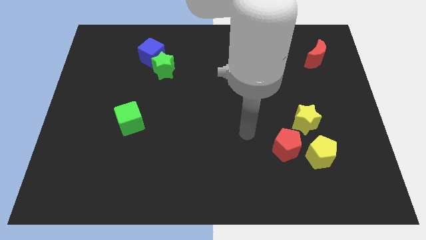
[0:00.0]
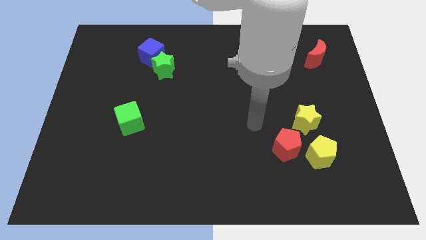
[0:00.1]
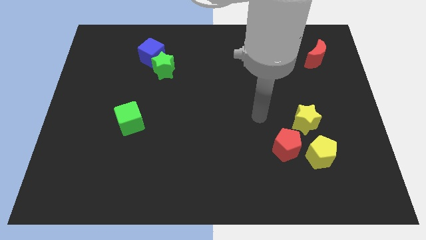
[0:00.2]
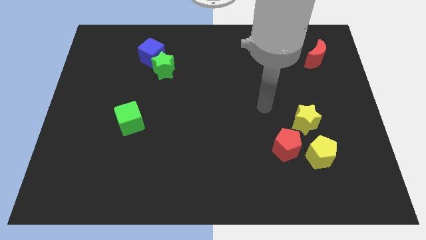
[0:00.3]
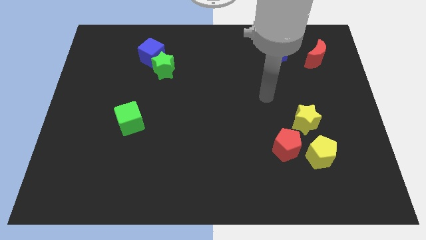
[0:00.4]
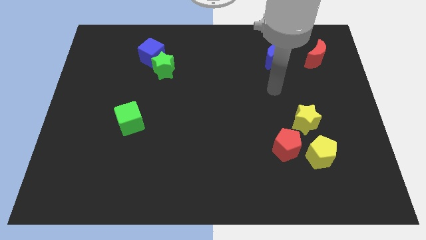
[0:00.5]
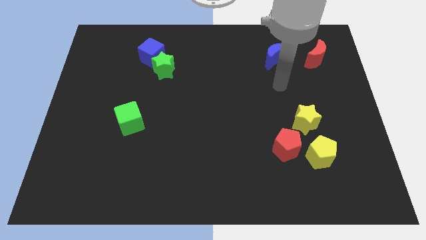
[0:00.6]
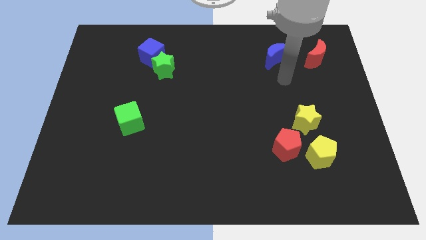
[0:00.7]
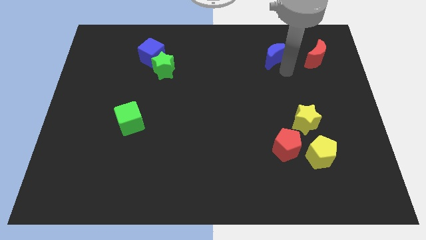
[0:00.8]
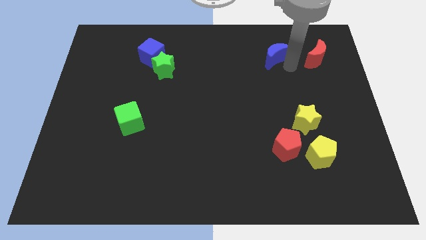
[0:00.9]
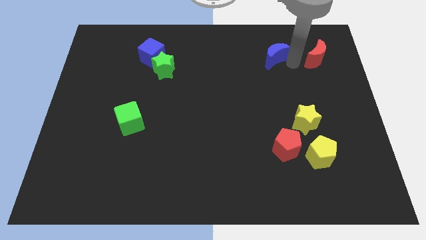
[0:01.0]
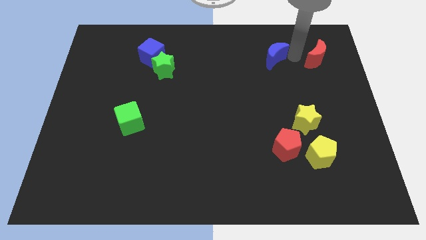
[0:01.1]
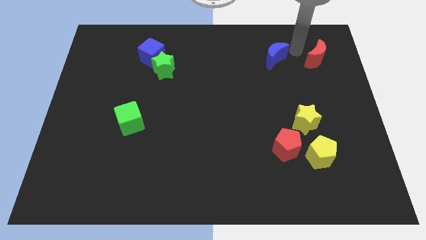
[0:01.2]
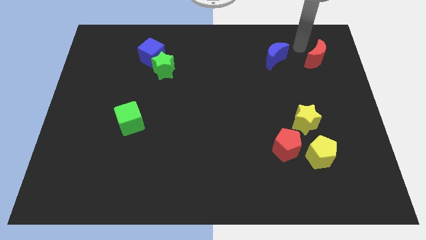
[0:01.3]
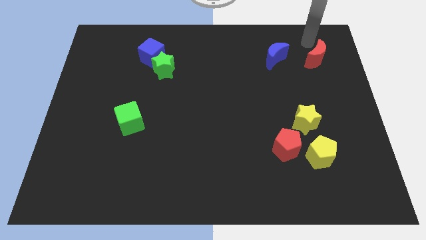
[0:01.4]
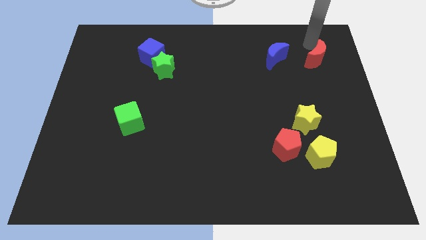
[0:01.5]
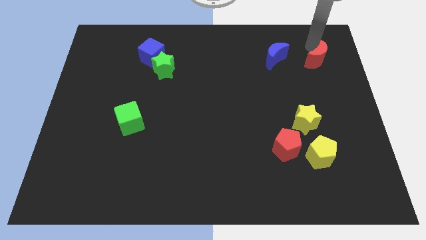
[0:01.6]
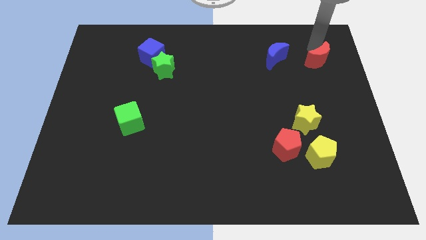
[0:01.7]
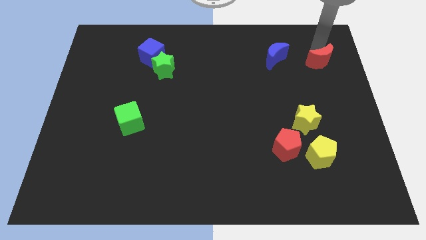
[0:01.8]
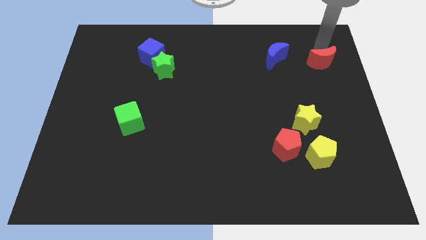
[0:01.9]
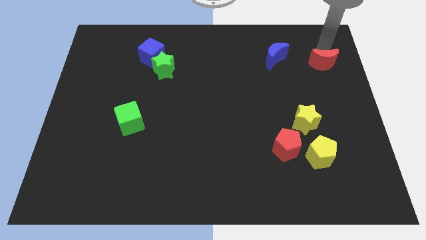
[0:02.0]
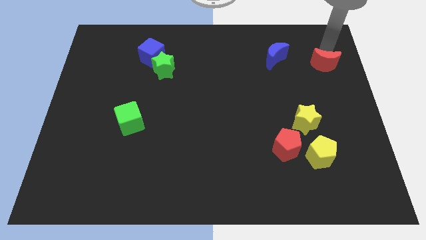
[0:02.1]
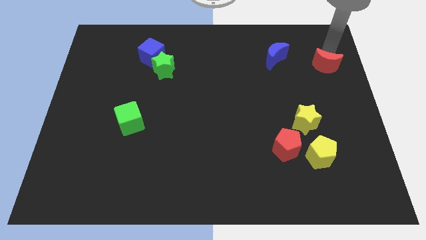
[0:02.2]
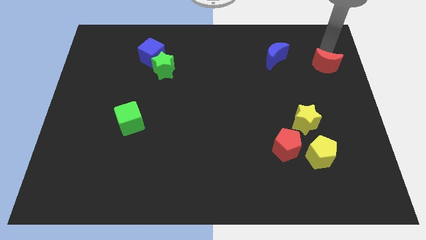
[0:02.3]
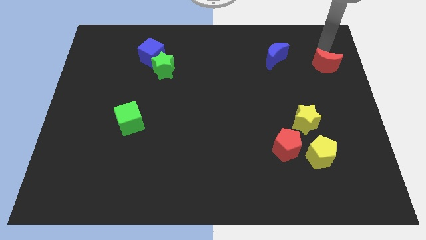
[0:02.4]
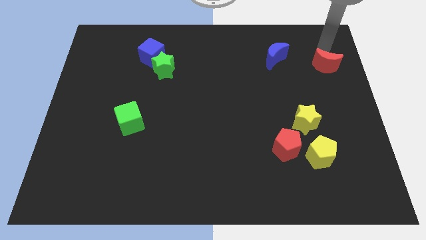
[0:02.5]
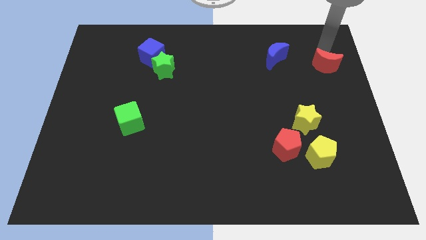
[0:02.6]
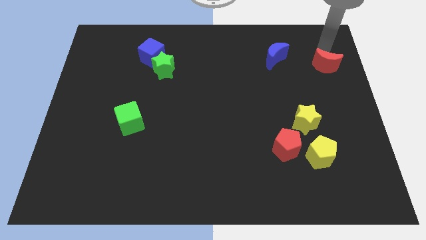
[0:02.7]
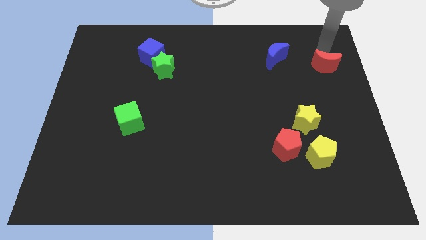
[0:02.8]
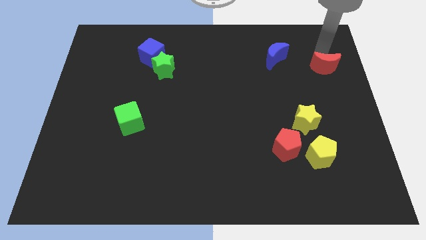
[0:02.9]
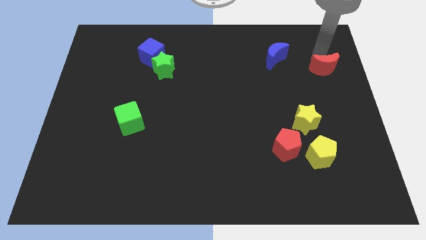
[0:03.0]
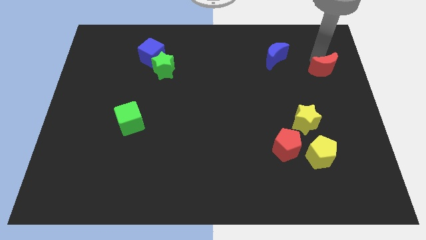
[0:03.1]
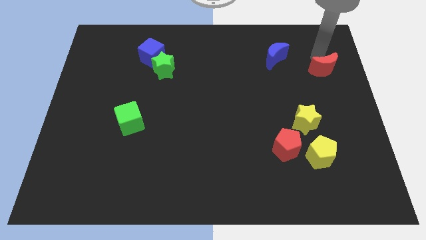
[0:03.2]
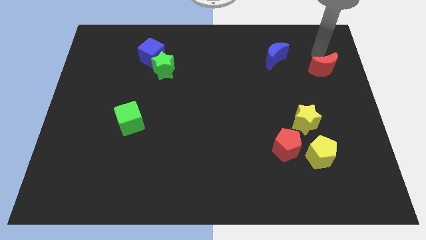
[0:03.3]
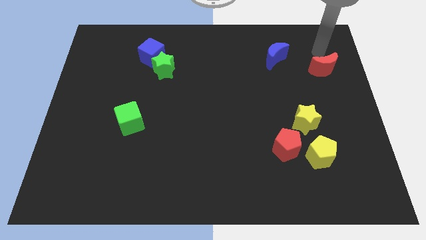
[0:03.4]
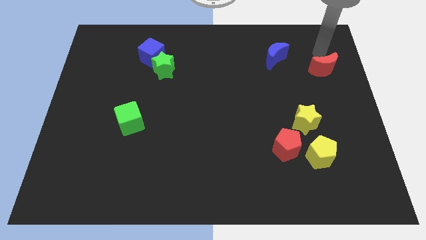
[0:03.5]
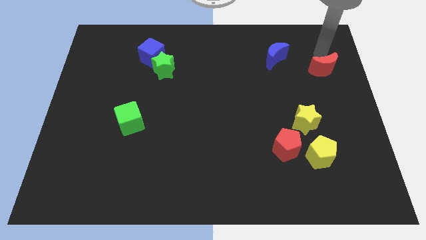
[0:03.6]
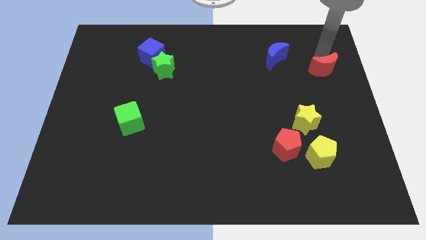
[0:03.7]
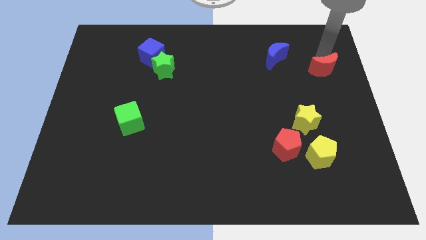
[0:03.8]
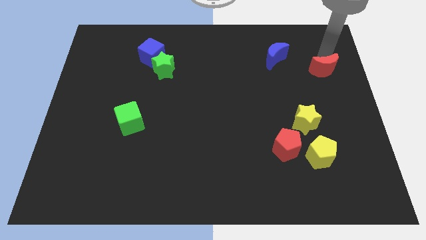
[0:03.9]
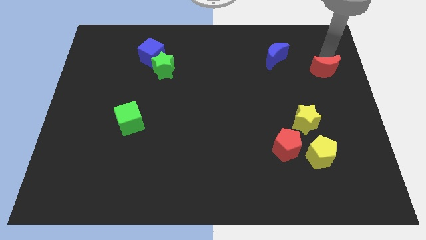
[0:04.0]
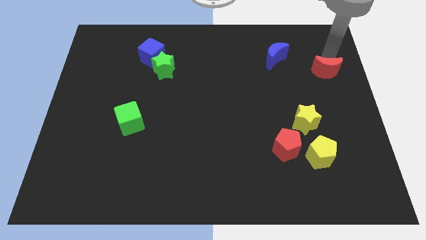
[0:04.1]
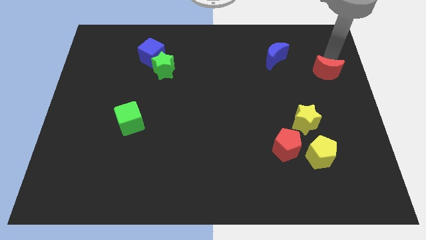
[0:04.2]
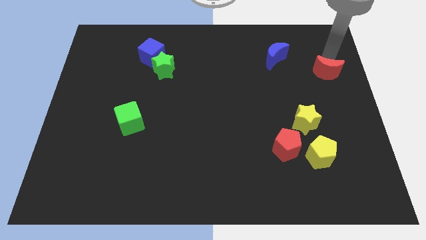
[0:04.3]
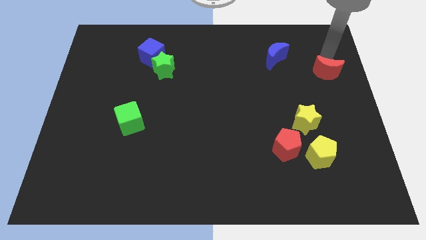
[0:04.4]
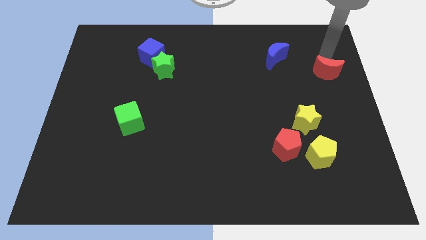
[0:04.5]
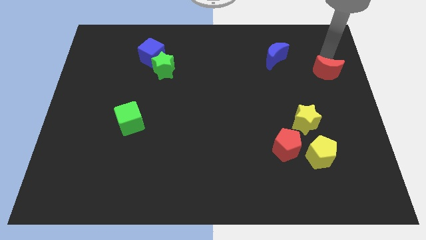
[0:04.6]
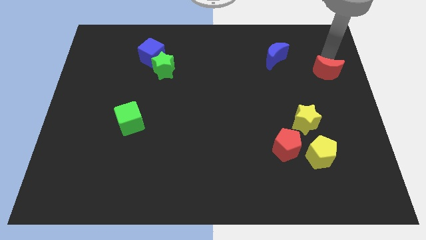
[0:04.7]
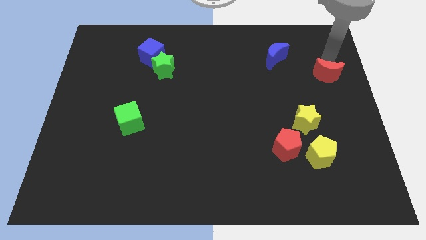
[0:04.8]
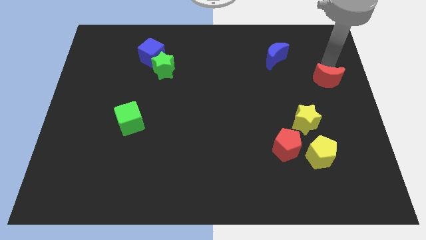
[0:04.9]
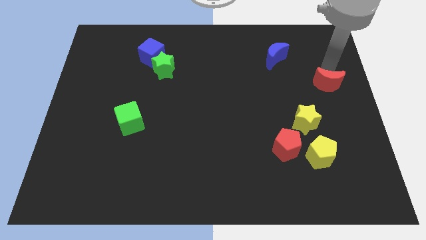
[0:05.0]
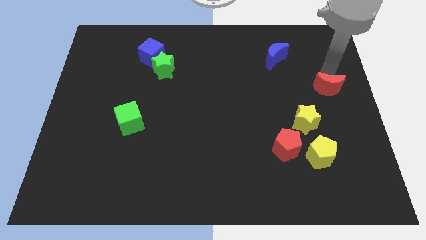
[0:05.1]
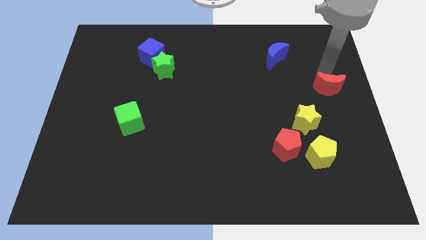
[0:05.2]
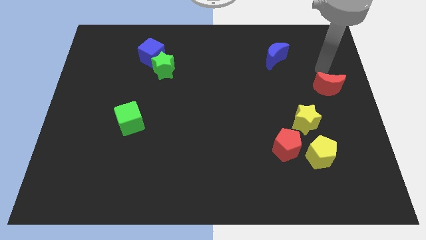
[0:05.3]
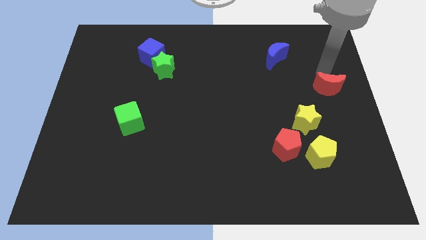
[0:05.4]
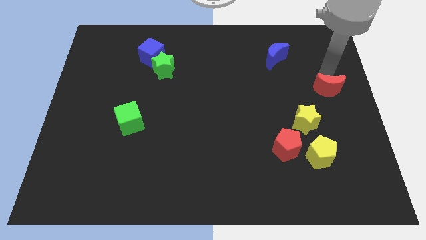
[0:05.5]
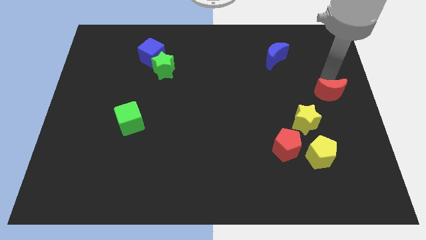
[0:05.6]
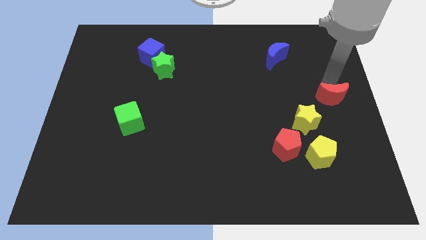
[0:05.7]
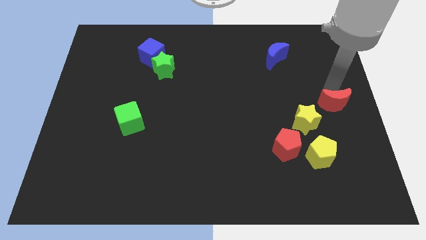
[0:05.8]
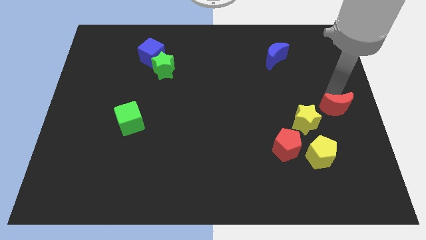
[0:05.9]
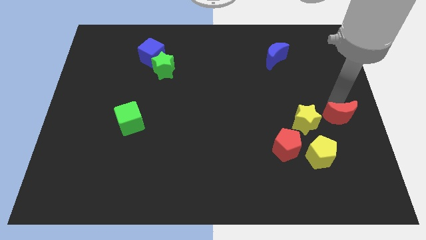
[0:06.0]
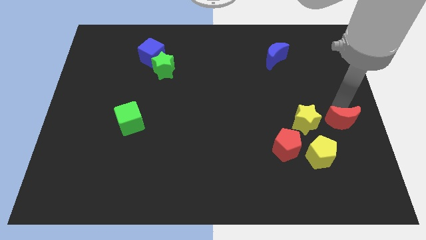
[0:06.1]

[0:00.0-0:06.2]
move the red moon downwards

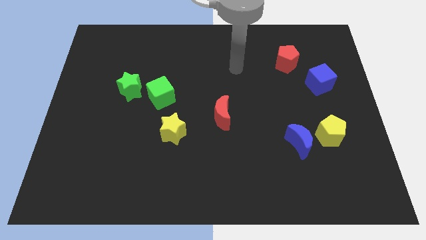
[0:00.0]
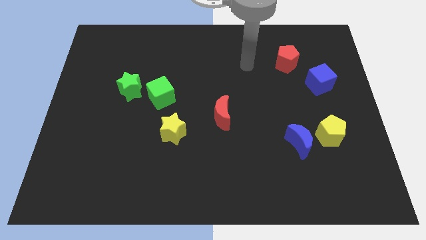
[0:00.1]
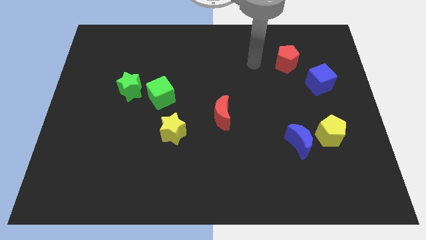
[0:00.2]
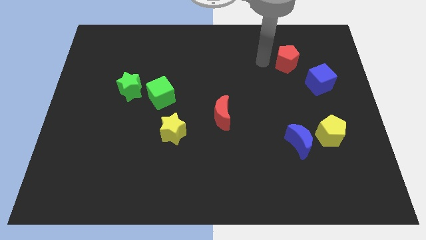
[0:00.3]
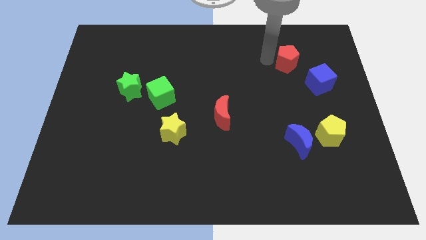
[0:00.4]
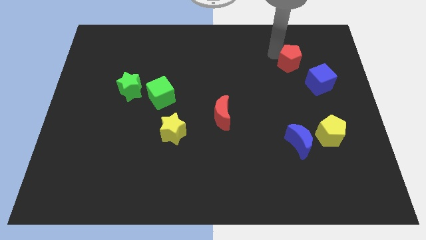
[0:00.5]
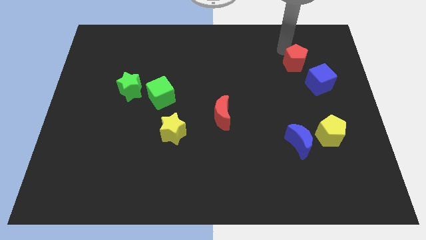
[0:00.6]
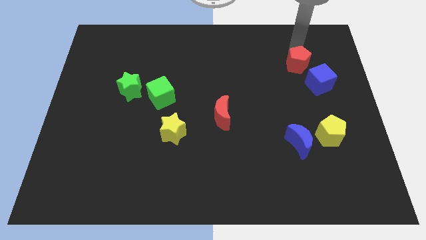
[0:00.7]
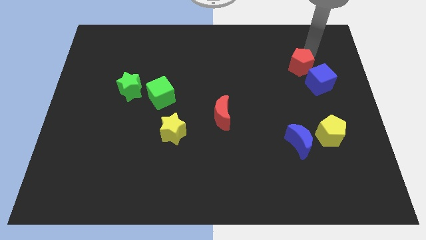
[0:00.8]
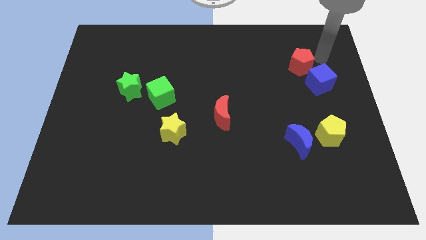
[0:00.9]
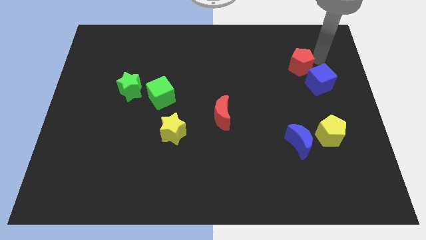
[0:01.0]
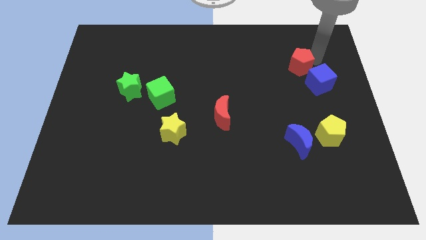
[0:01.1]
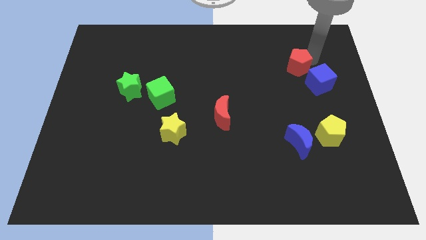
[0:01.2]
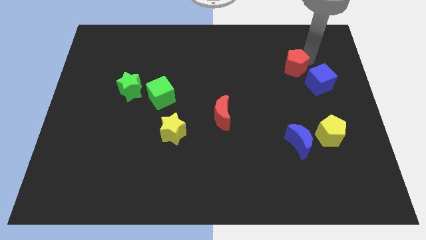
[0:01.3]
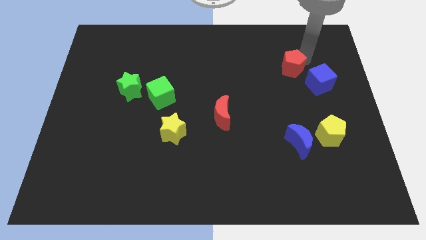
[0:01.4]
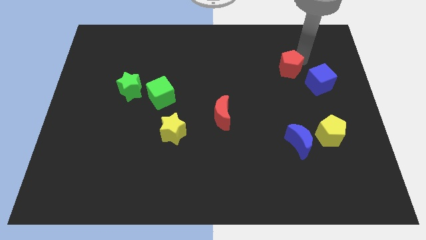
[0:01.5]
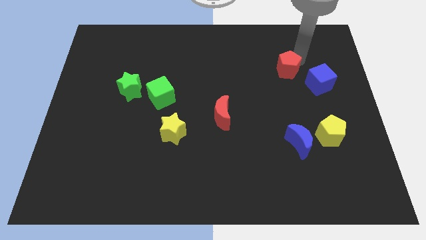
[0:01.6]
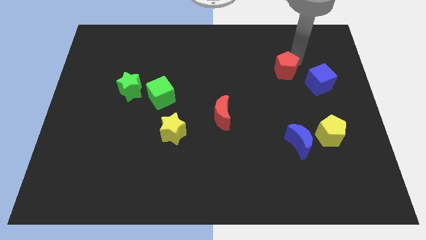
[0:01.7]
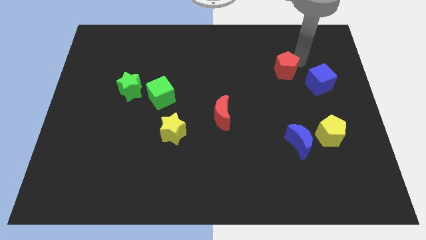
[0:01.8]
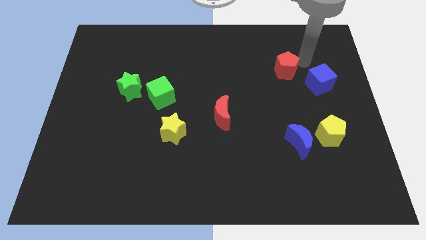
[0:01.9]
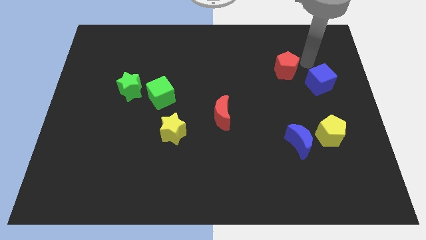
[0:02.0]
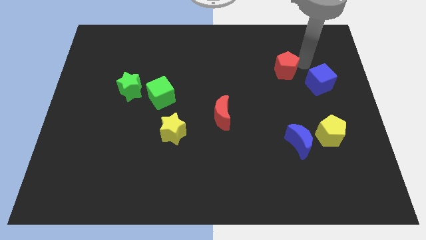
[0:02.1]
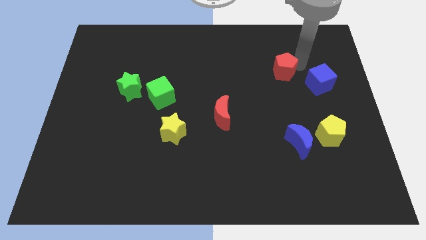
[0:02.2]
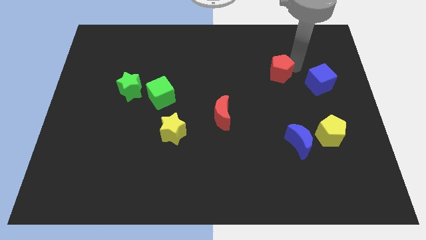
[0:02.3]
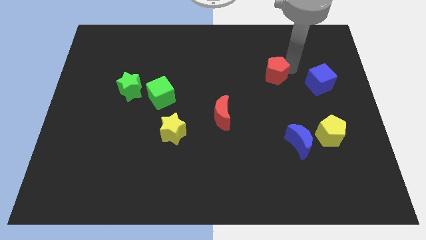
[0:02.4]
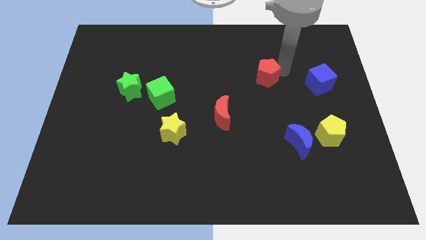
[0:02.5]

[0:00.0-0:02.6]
move the red pentagon downwards and left diagonally a bit
